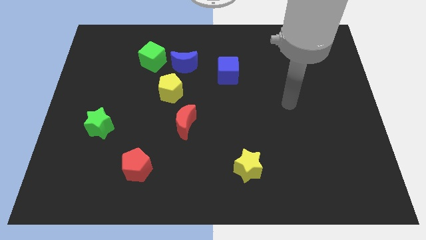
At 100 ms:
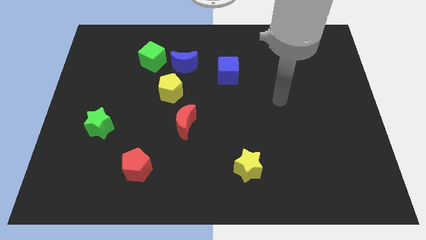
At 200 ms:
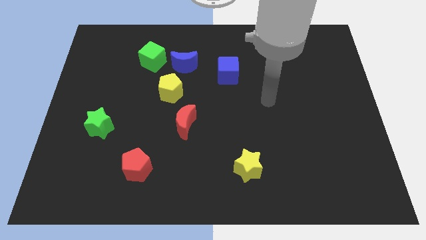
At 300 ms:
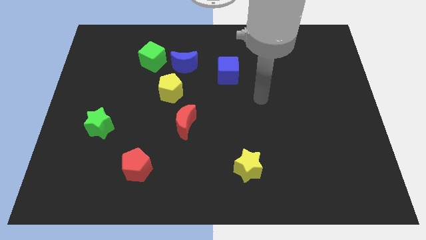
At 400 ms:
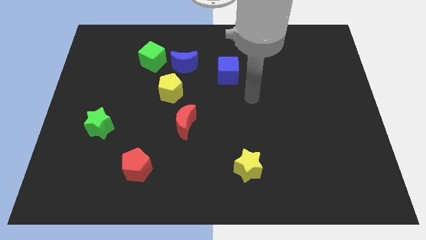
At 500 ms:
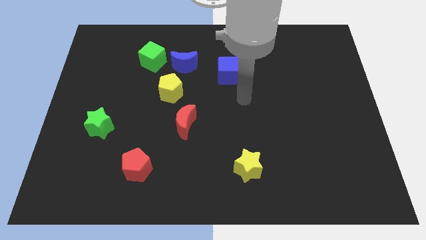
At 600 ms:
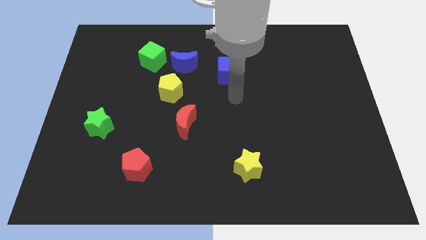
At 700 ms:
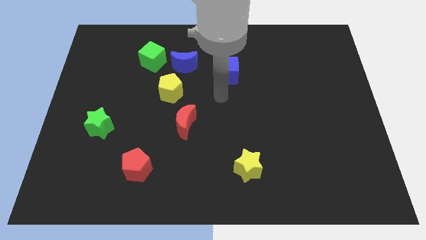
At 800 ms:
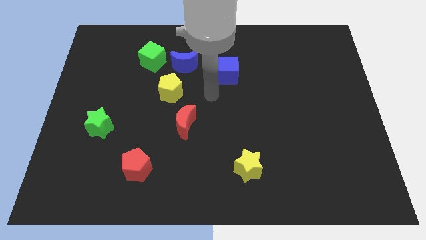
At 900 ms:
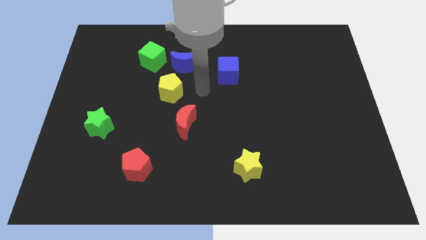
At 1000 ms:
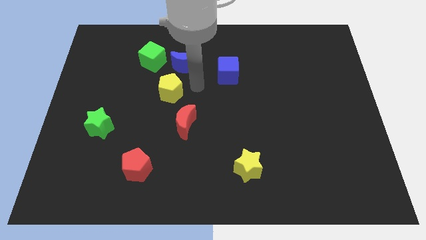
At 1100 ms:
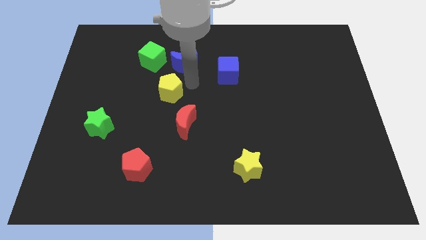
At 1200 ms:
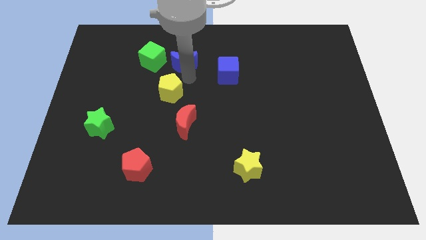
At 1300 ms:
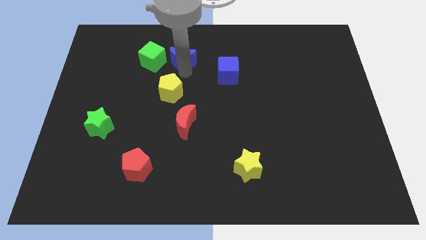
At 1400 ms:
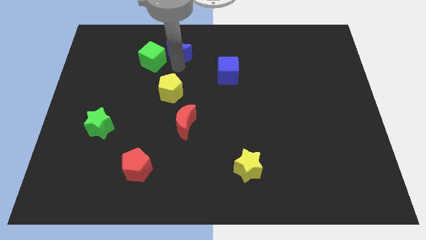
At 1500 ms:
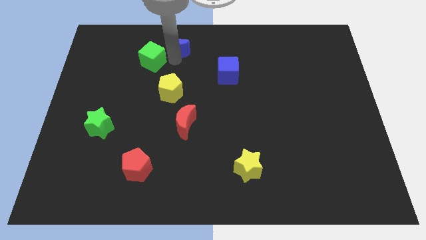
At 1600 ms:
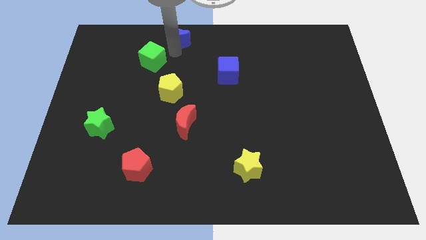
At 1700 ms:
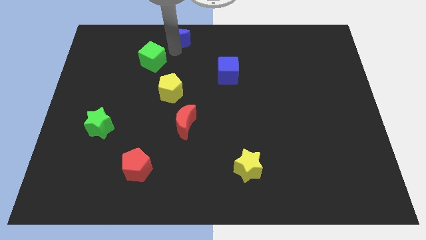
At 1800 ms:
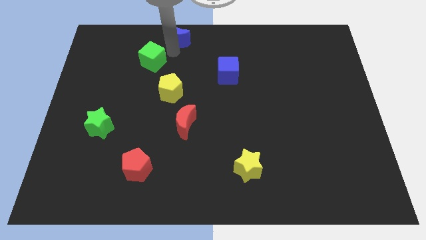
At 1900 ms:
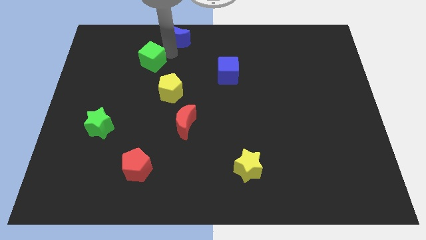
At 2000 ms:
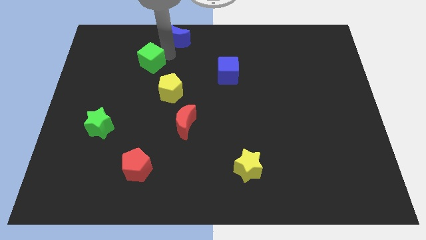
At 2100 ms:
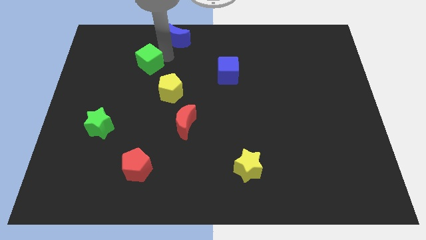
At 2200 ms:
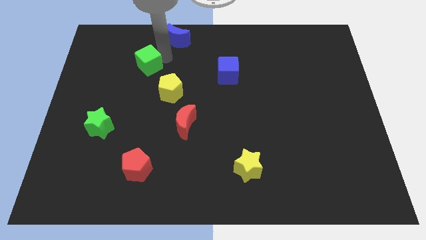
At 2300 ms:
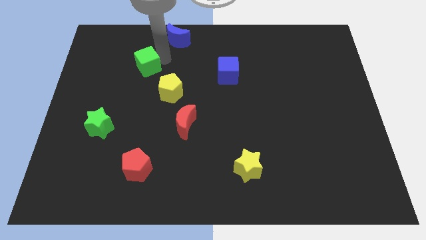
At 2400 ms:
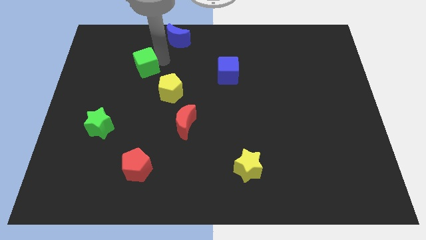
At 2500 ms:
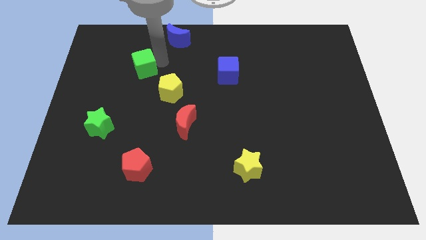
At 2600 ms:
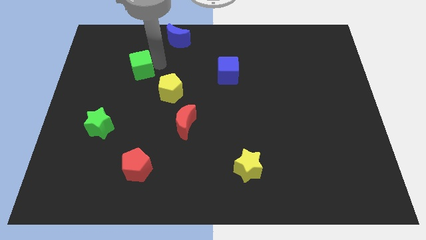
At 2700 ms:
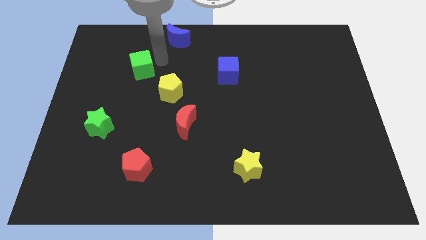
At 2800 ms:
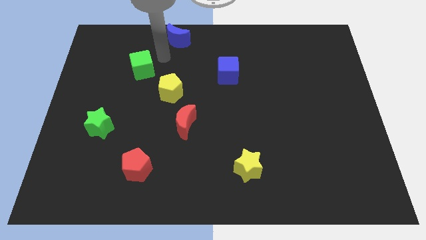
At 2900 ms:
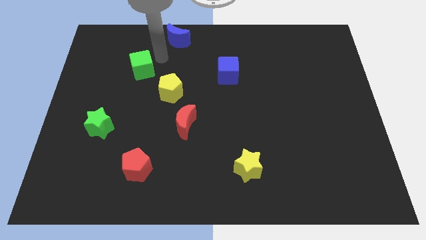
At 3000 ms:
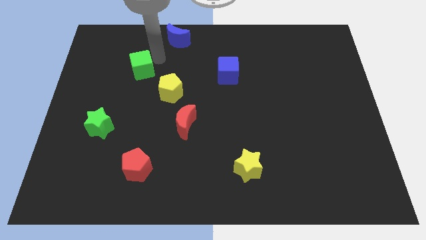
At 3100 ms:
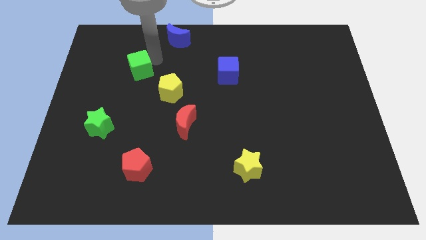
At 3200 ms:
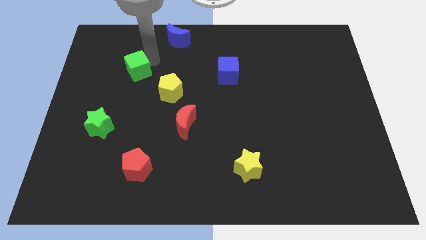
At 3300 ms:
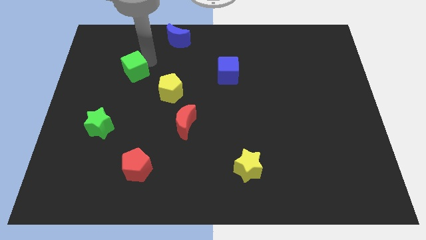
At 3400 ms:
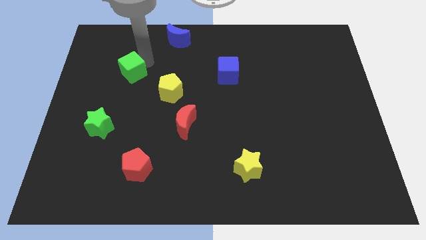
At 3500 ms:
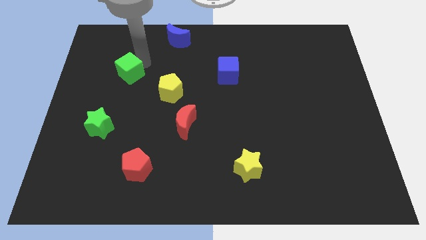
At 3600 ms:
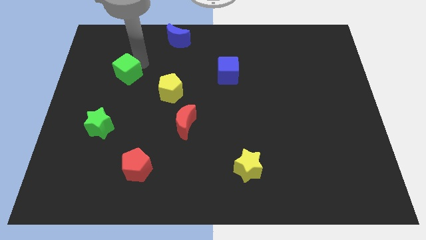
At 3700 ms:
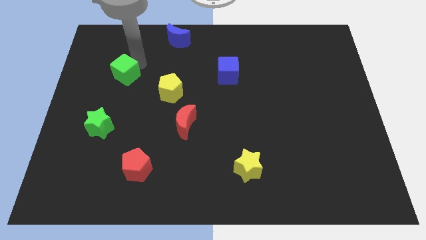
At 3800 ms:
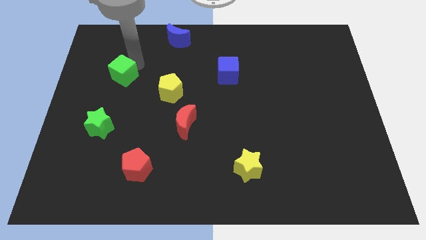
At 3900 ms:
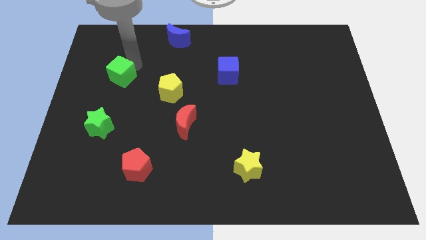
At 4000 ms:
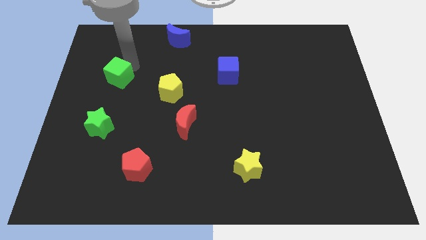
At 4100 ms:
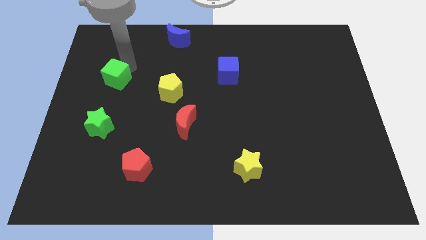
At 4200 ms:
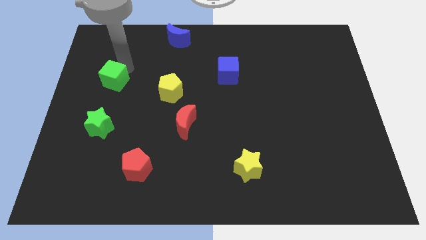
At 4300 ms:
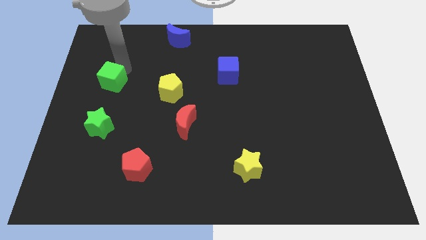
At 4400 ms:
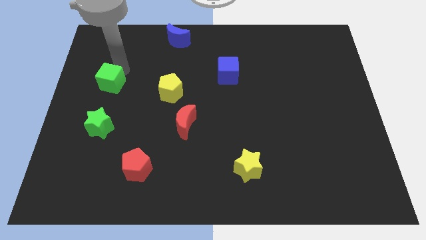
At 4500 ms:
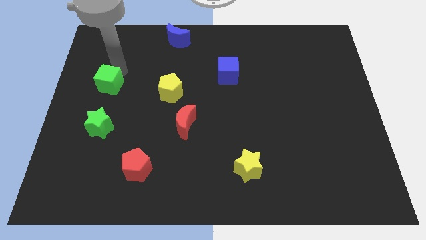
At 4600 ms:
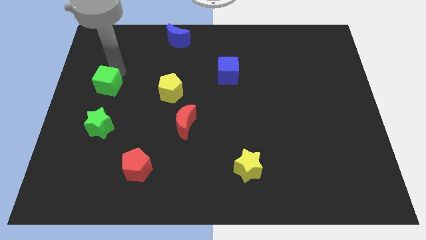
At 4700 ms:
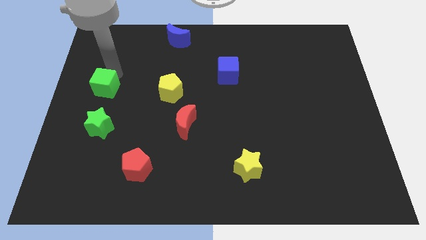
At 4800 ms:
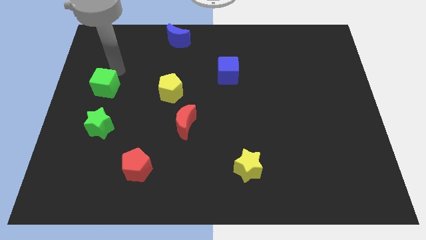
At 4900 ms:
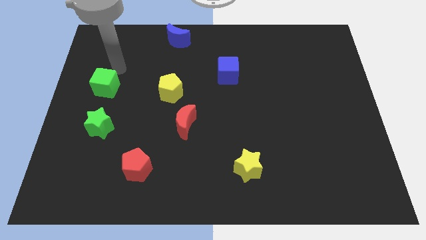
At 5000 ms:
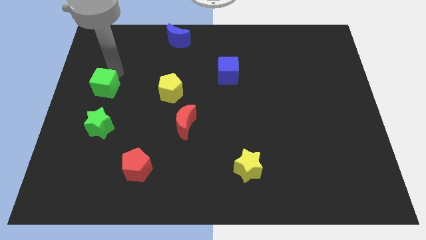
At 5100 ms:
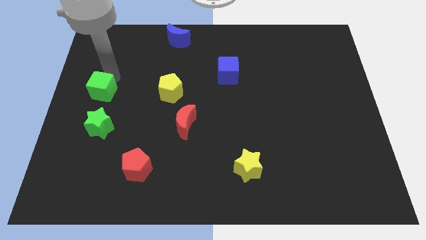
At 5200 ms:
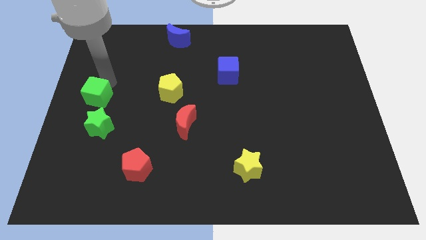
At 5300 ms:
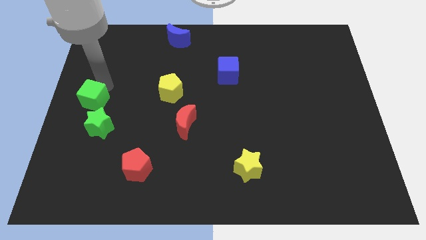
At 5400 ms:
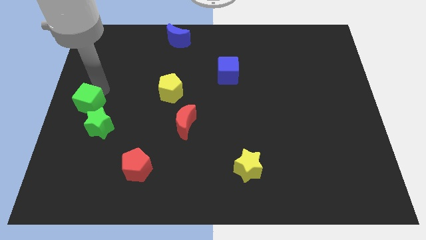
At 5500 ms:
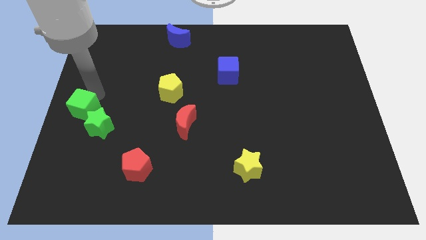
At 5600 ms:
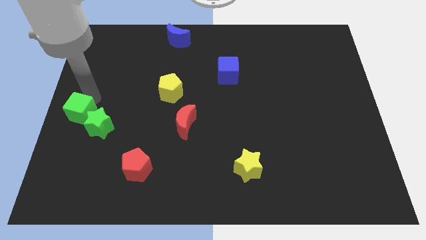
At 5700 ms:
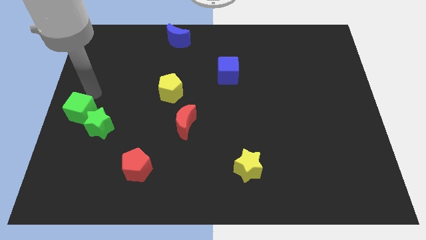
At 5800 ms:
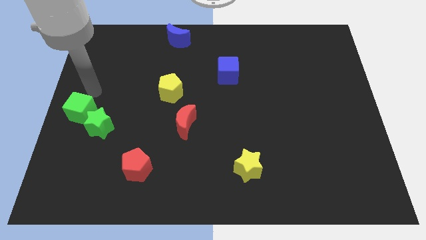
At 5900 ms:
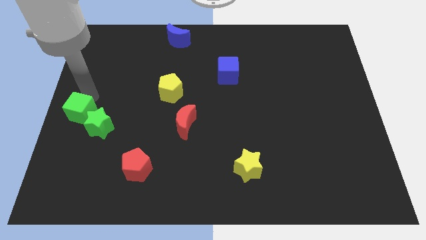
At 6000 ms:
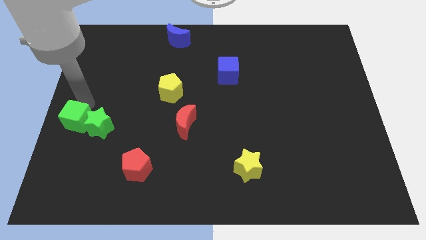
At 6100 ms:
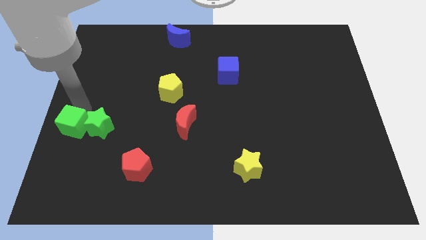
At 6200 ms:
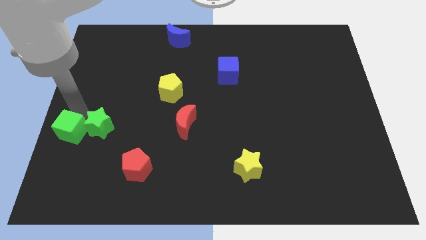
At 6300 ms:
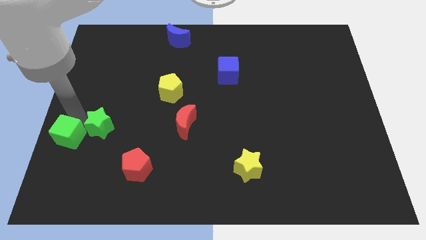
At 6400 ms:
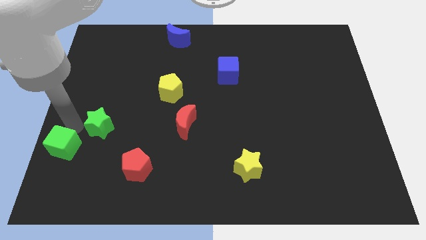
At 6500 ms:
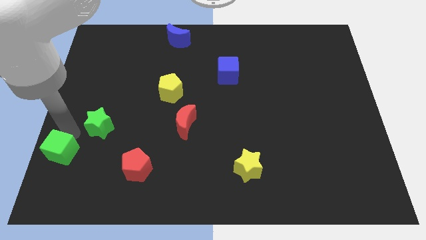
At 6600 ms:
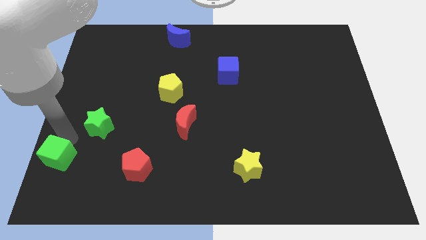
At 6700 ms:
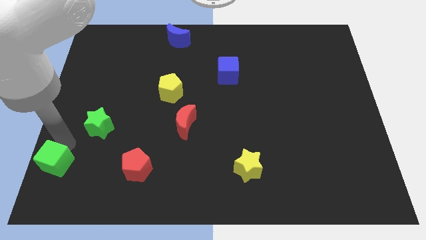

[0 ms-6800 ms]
push the green cube to the bottom left of the board
